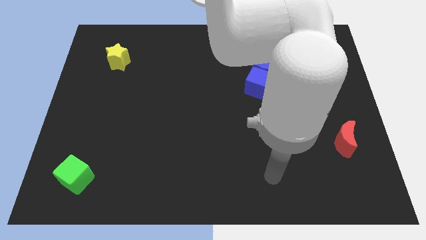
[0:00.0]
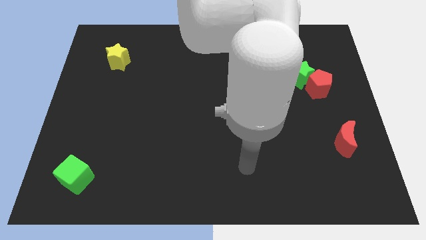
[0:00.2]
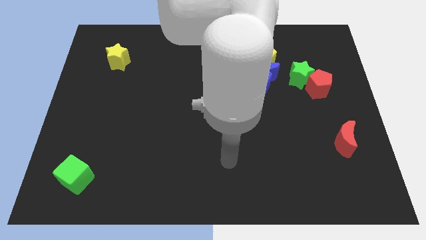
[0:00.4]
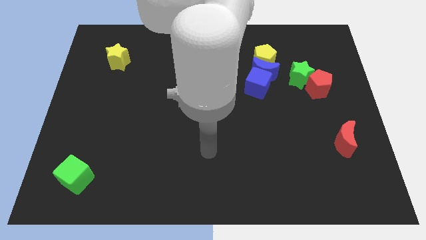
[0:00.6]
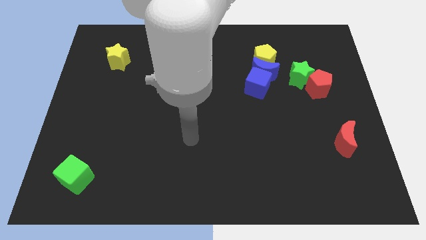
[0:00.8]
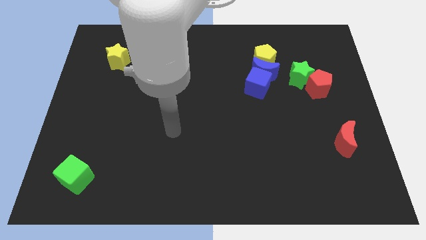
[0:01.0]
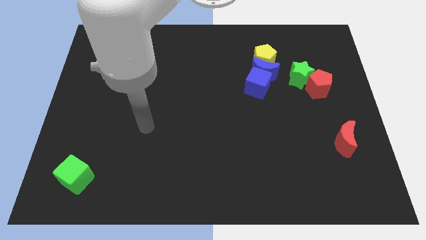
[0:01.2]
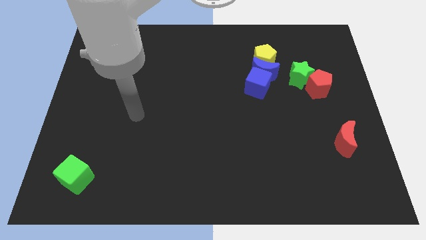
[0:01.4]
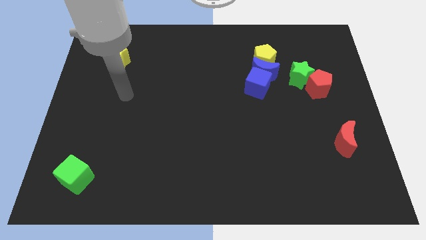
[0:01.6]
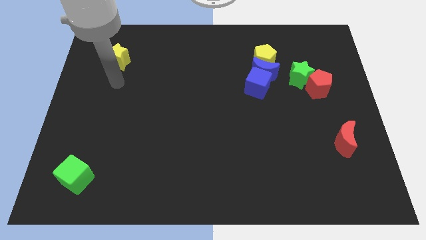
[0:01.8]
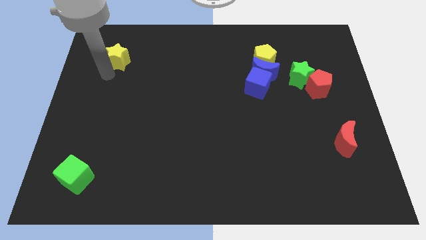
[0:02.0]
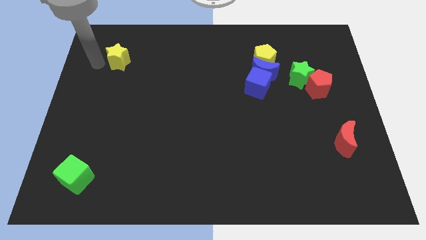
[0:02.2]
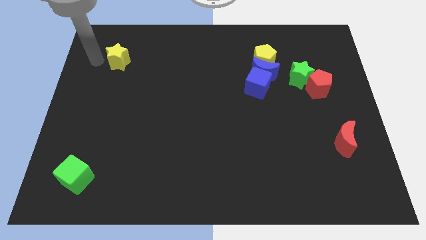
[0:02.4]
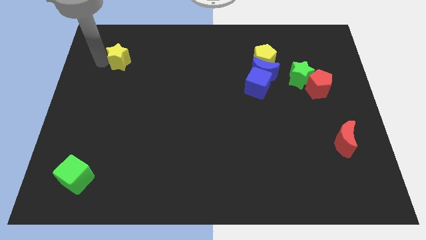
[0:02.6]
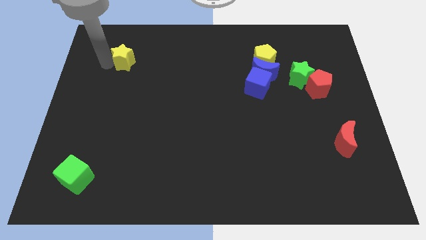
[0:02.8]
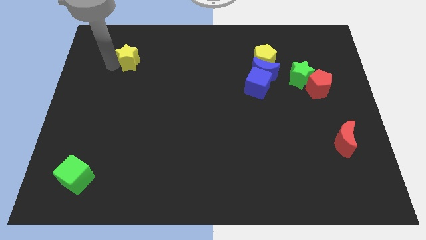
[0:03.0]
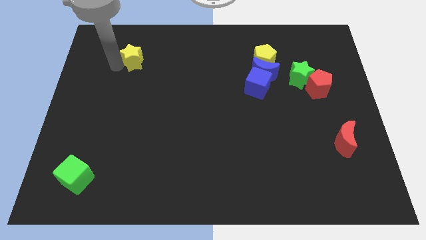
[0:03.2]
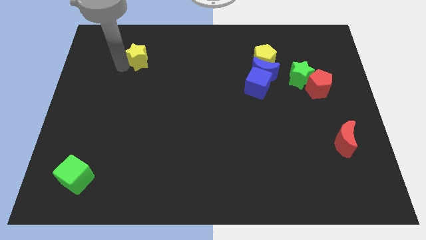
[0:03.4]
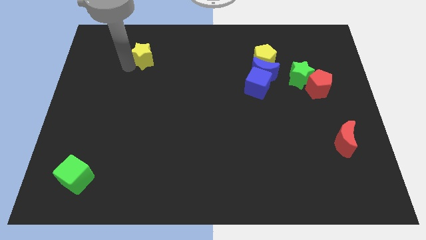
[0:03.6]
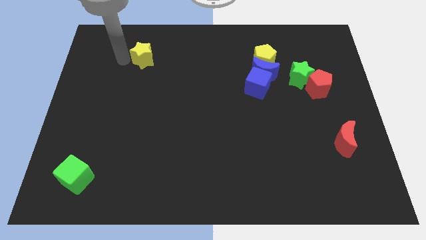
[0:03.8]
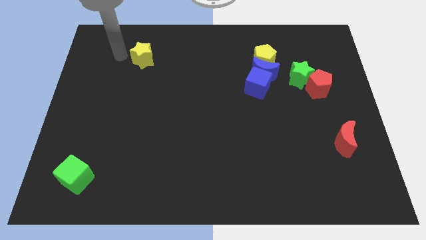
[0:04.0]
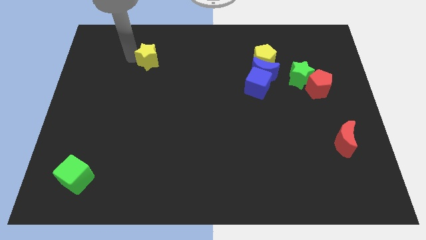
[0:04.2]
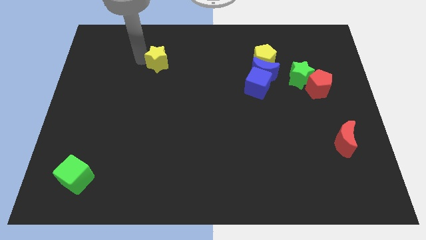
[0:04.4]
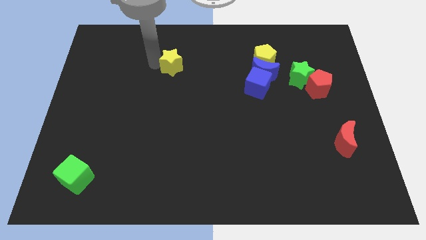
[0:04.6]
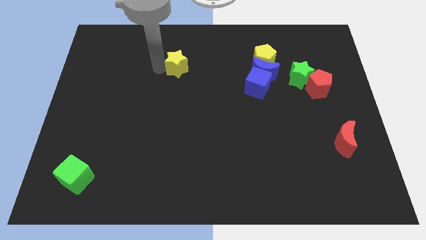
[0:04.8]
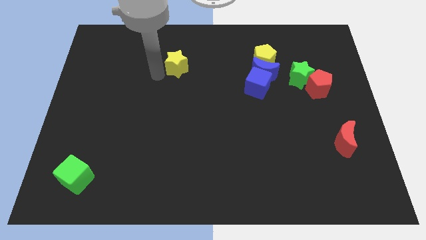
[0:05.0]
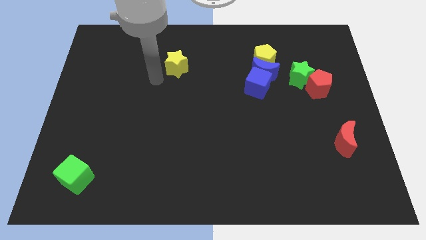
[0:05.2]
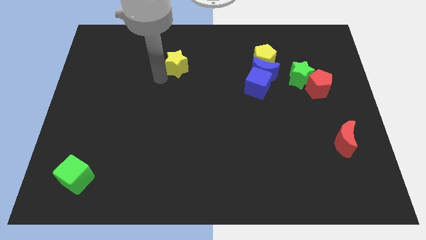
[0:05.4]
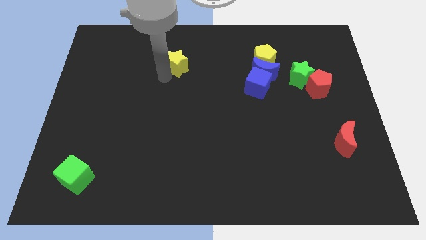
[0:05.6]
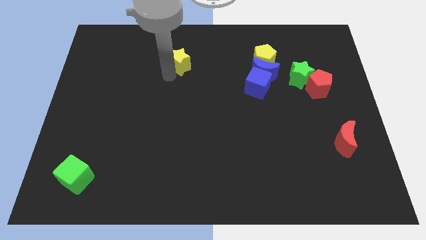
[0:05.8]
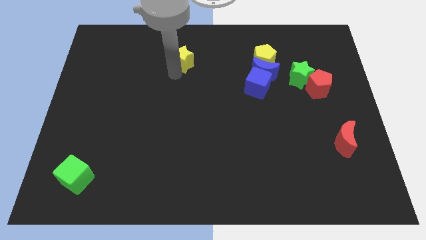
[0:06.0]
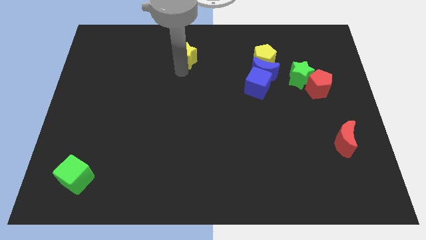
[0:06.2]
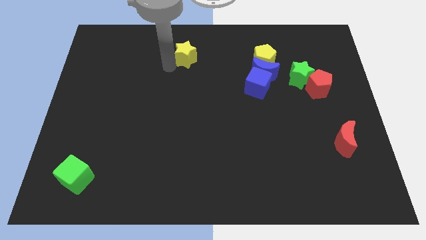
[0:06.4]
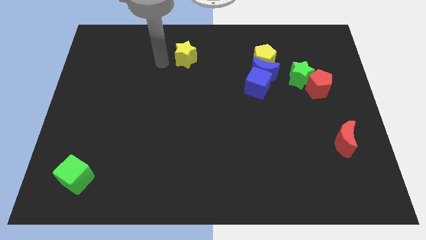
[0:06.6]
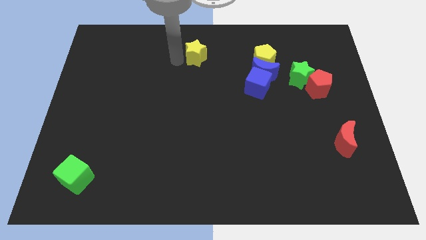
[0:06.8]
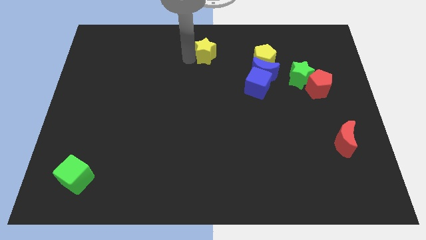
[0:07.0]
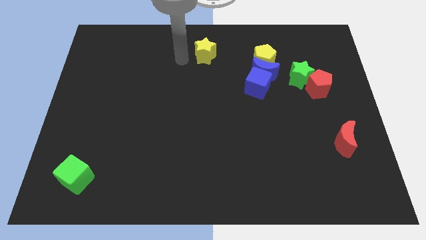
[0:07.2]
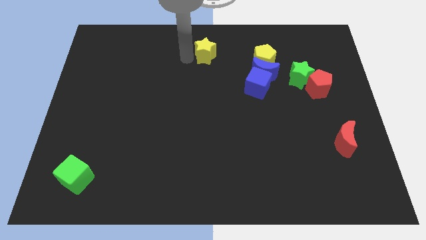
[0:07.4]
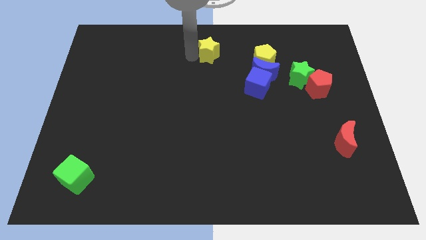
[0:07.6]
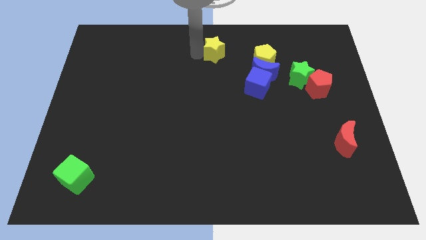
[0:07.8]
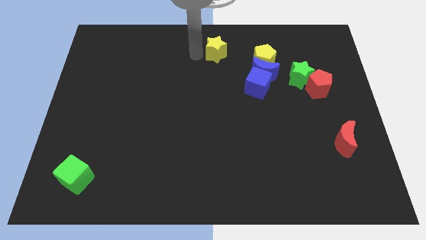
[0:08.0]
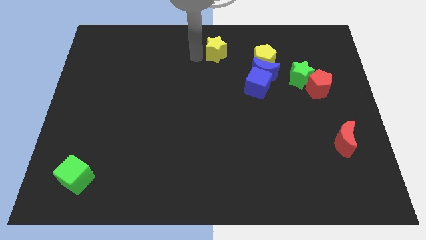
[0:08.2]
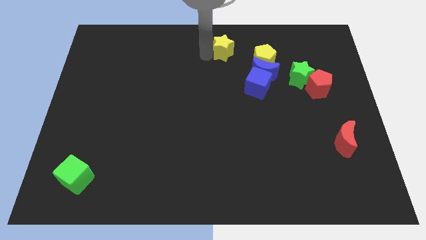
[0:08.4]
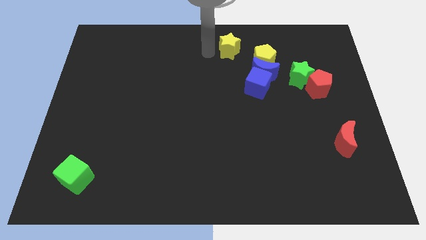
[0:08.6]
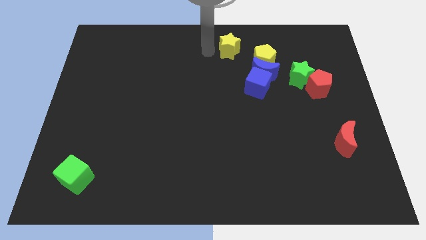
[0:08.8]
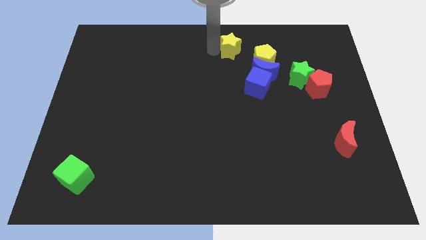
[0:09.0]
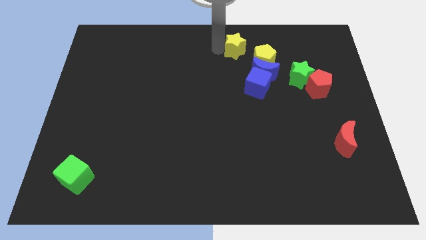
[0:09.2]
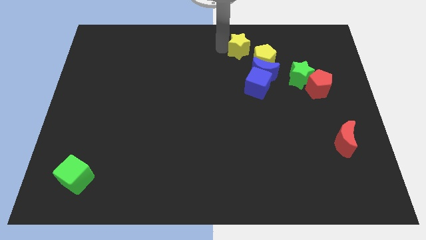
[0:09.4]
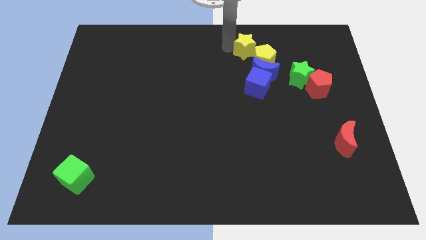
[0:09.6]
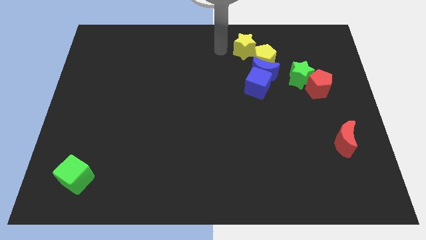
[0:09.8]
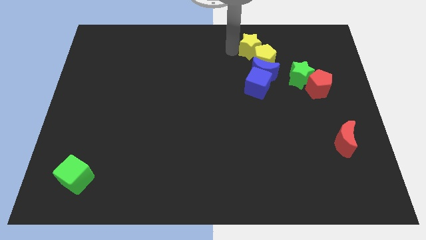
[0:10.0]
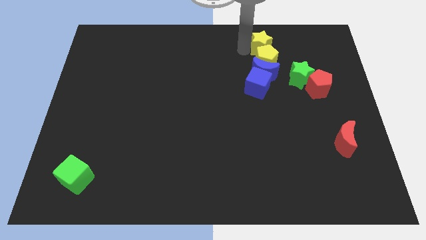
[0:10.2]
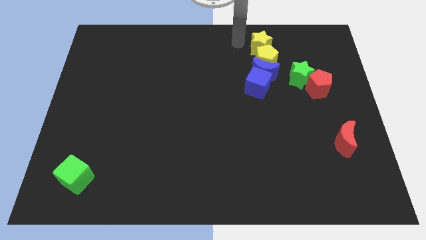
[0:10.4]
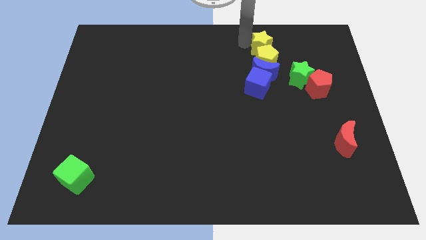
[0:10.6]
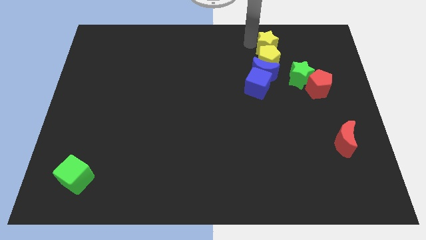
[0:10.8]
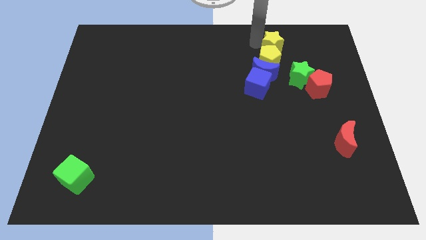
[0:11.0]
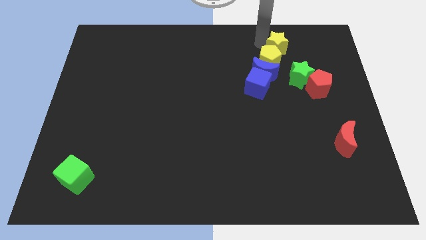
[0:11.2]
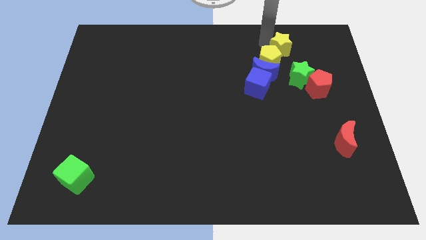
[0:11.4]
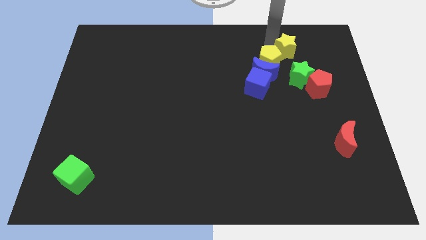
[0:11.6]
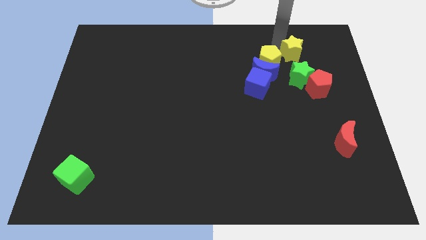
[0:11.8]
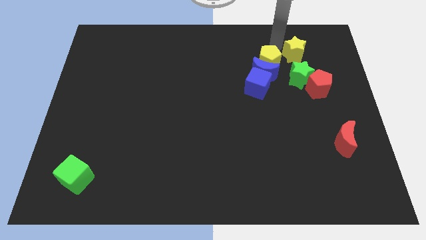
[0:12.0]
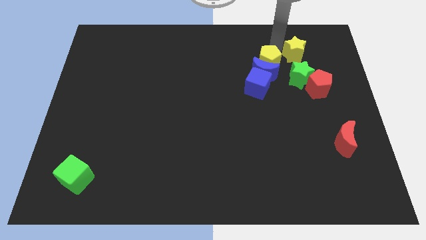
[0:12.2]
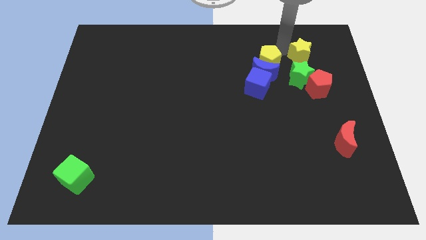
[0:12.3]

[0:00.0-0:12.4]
put the yellow star diagonally up and to the right of the green star

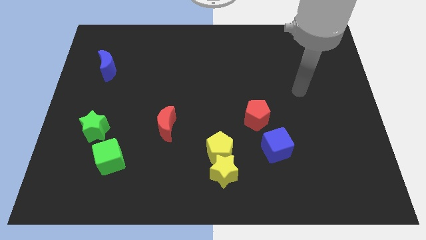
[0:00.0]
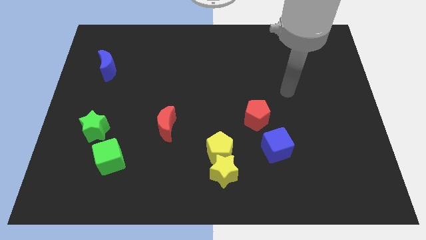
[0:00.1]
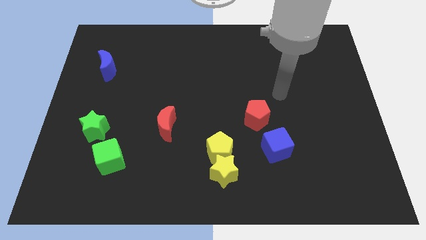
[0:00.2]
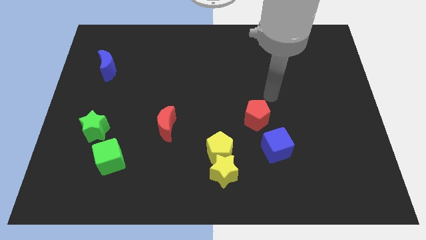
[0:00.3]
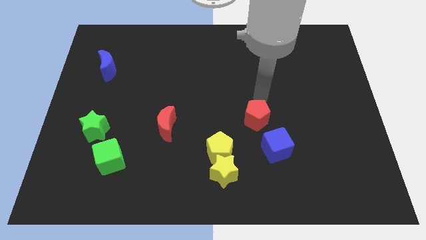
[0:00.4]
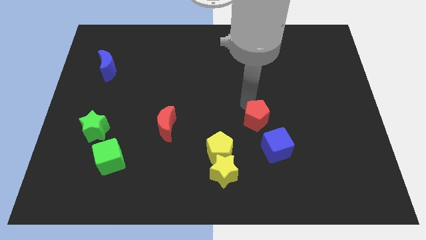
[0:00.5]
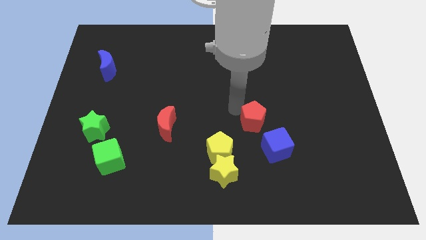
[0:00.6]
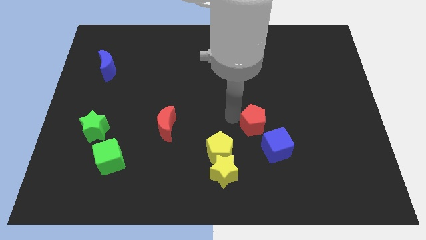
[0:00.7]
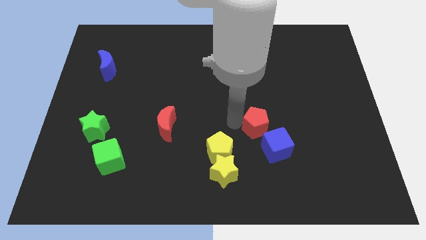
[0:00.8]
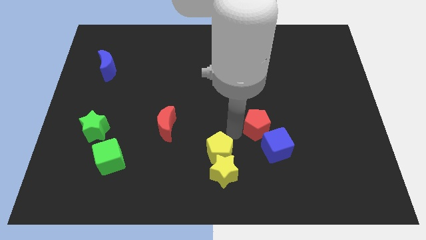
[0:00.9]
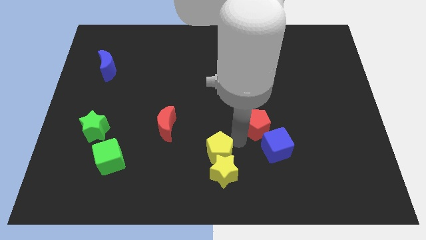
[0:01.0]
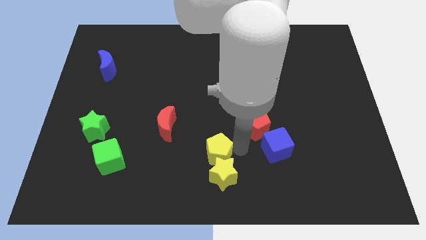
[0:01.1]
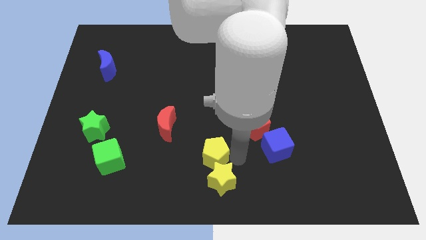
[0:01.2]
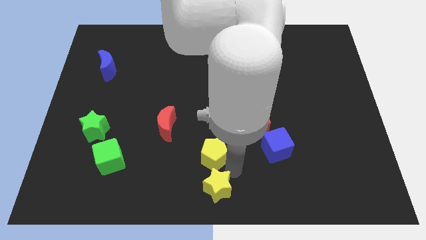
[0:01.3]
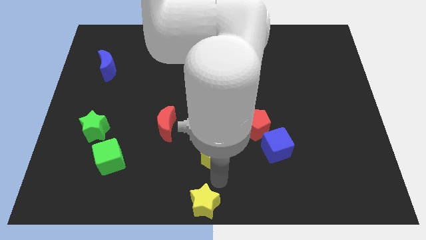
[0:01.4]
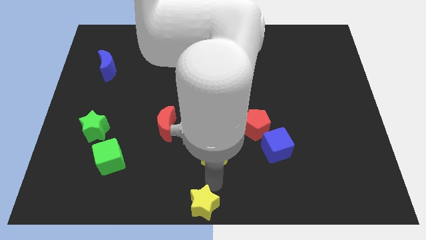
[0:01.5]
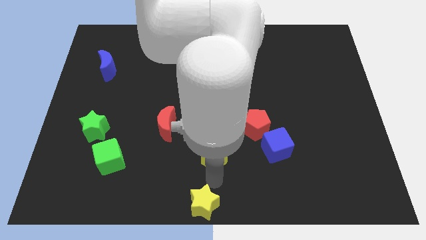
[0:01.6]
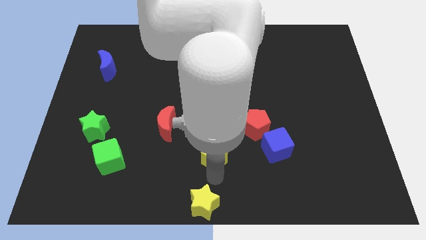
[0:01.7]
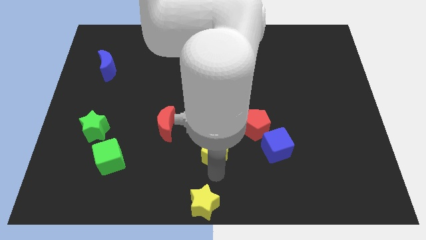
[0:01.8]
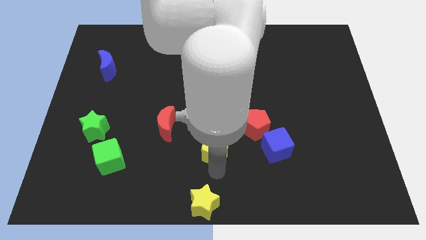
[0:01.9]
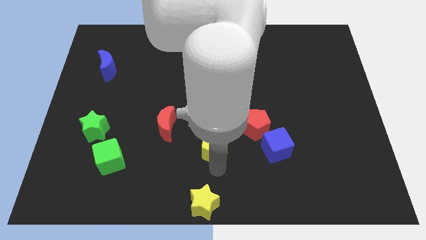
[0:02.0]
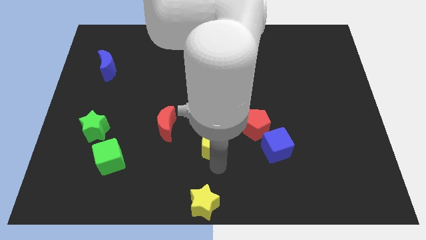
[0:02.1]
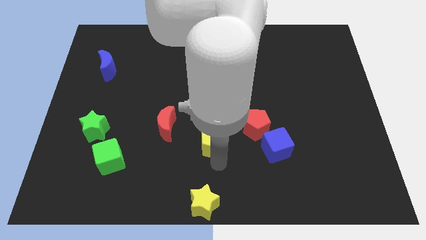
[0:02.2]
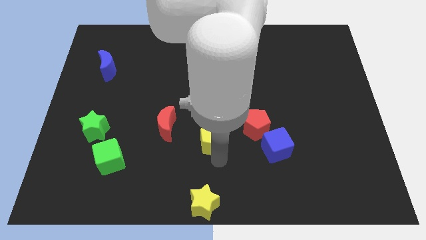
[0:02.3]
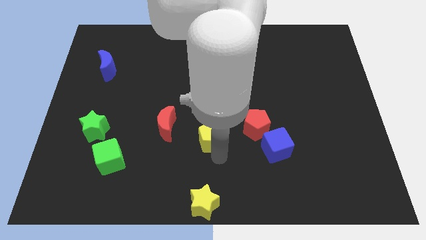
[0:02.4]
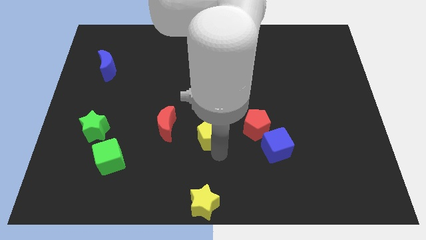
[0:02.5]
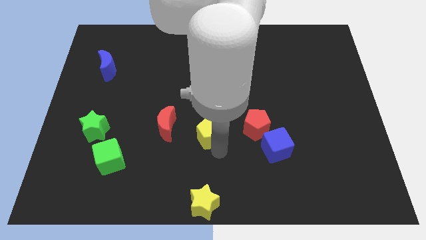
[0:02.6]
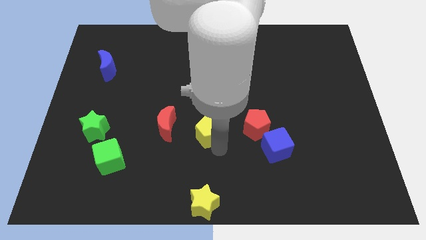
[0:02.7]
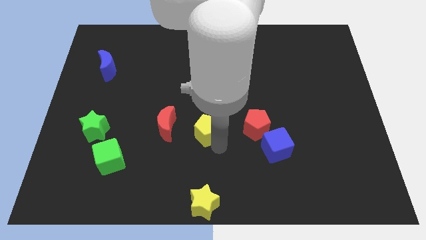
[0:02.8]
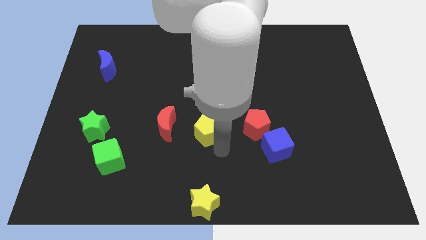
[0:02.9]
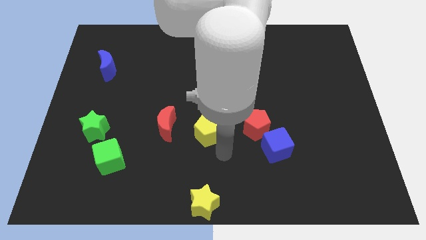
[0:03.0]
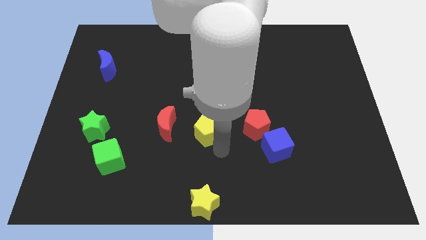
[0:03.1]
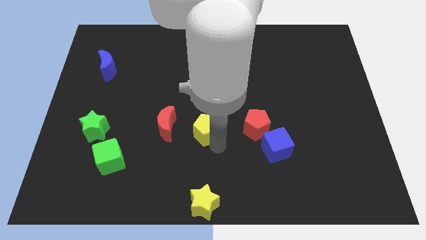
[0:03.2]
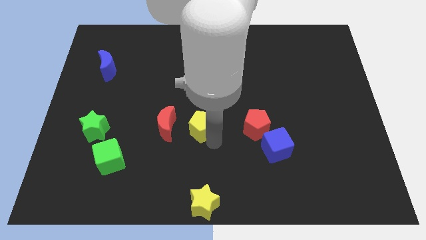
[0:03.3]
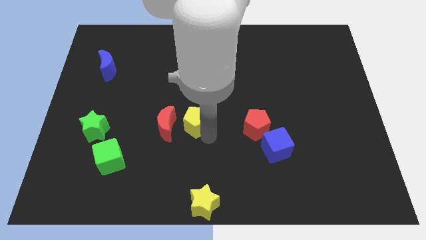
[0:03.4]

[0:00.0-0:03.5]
push the yellow pentagon diagonally up and to the right of the red moon
